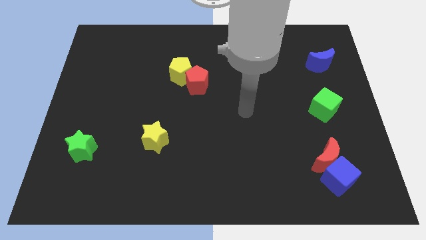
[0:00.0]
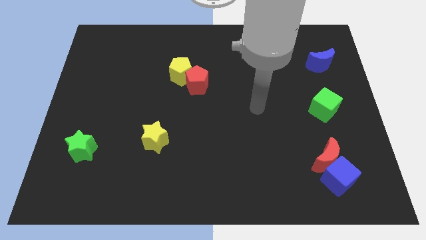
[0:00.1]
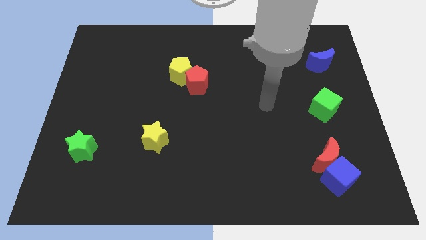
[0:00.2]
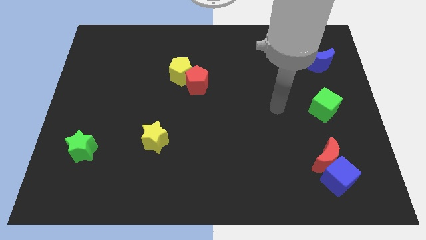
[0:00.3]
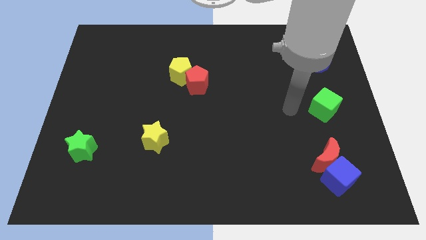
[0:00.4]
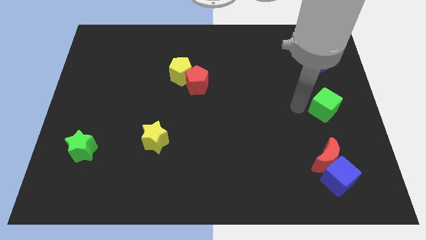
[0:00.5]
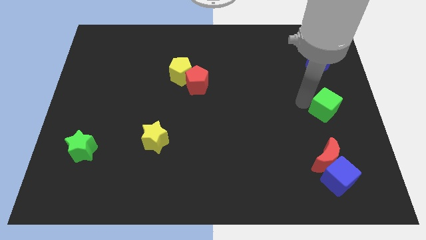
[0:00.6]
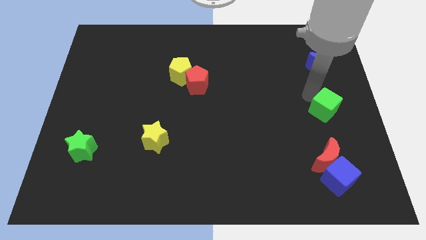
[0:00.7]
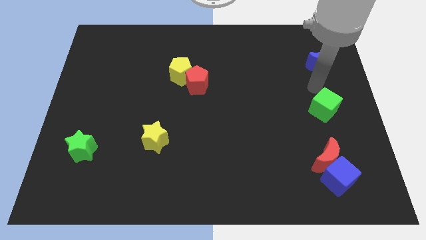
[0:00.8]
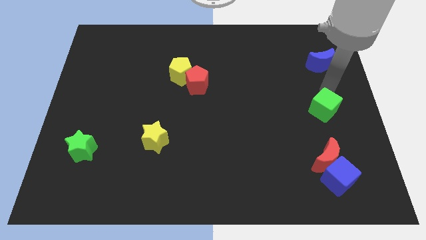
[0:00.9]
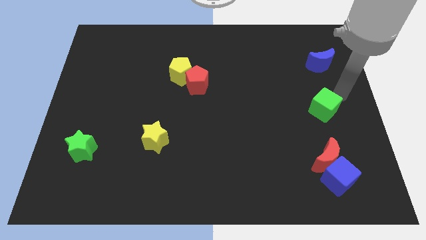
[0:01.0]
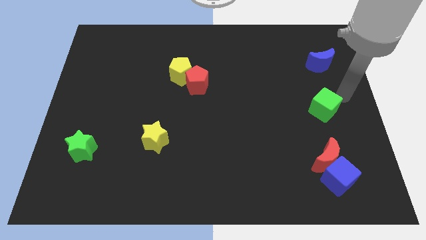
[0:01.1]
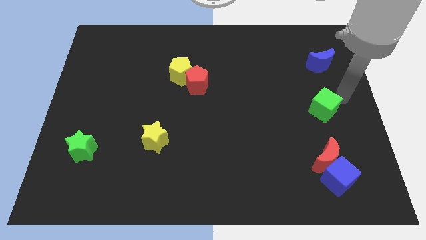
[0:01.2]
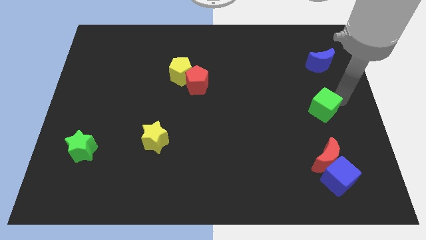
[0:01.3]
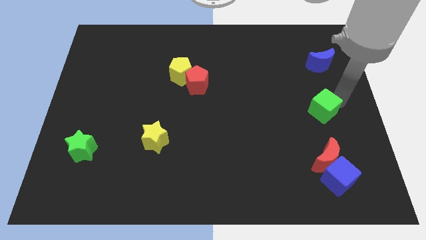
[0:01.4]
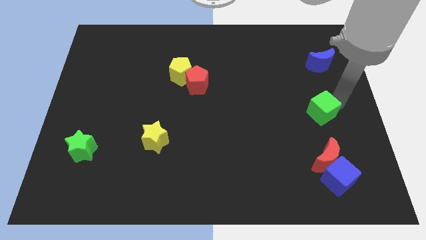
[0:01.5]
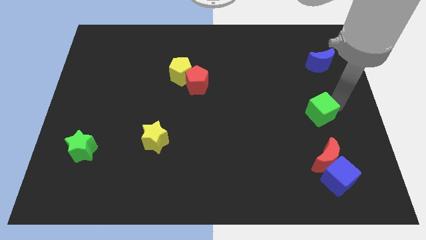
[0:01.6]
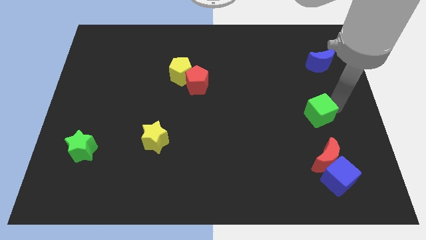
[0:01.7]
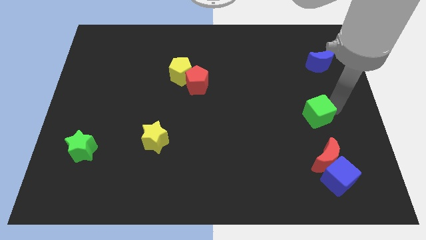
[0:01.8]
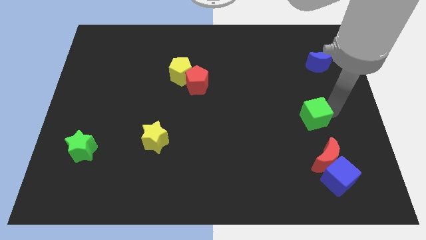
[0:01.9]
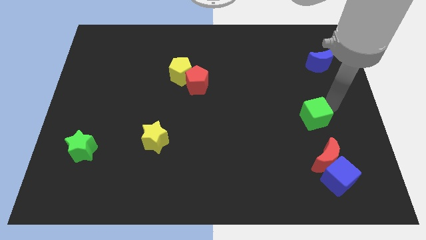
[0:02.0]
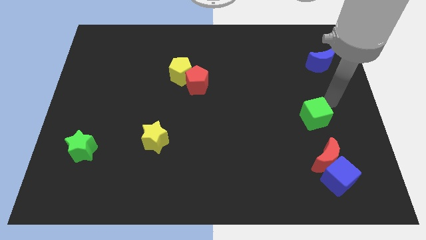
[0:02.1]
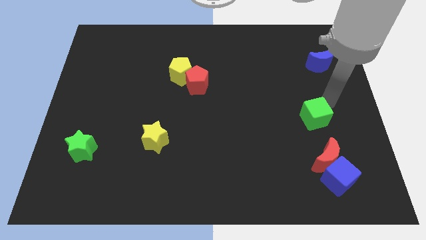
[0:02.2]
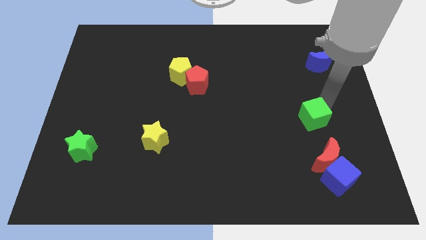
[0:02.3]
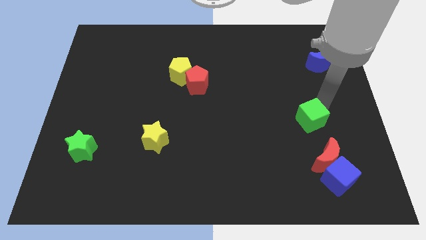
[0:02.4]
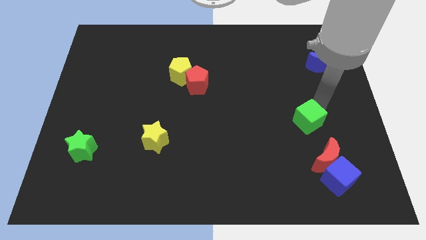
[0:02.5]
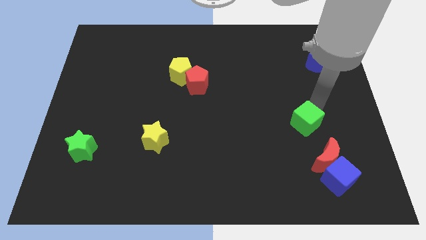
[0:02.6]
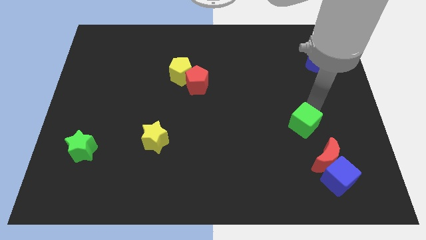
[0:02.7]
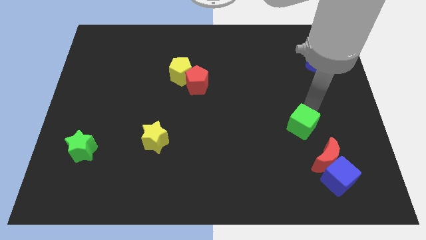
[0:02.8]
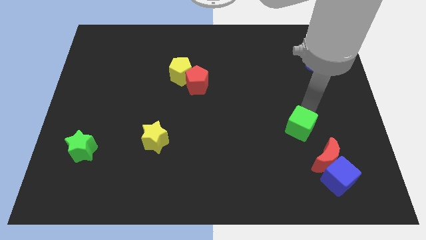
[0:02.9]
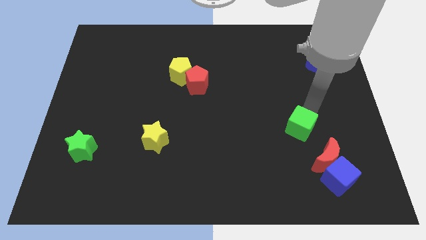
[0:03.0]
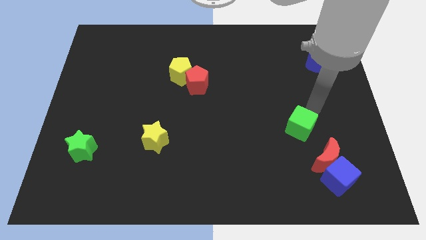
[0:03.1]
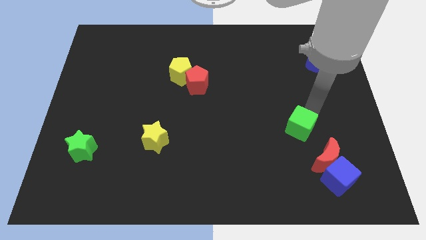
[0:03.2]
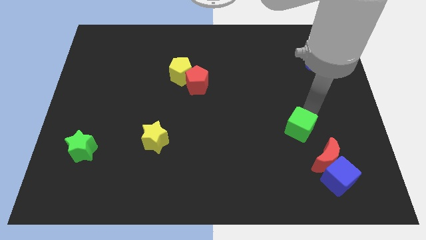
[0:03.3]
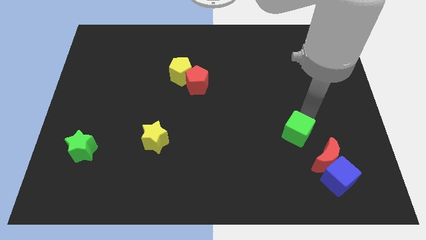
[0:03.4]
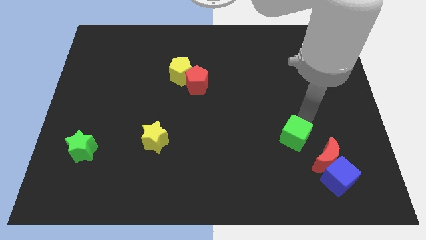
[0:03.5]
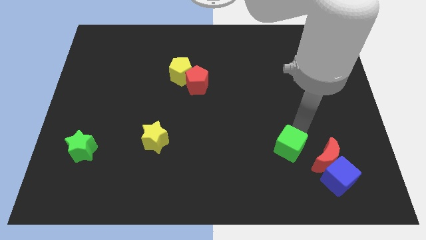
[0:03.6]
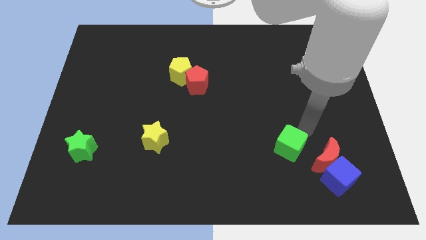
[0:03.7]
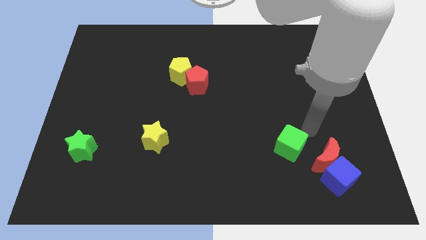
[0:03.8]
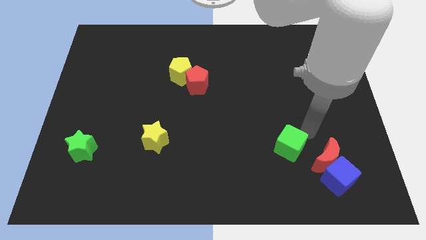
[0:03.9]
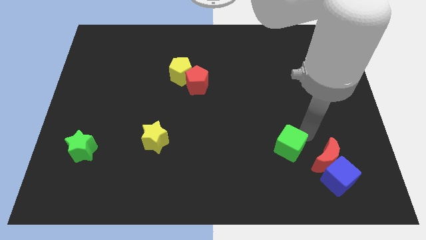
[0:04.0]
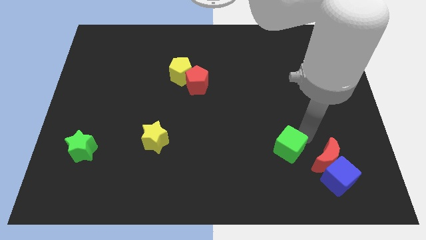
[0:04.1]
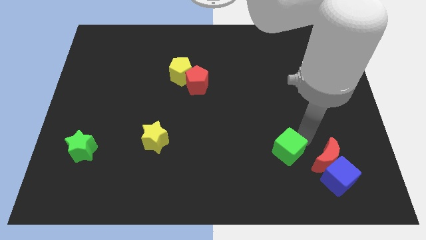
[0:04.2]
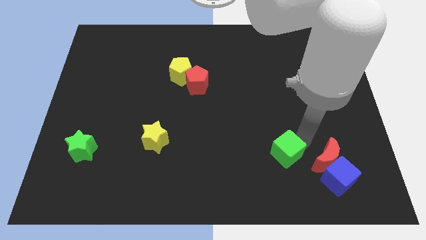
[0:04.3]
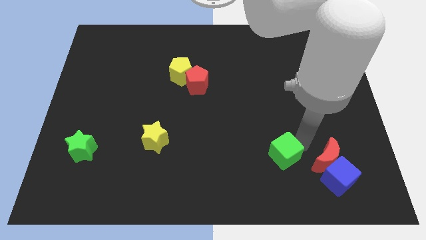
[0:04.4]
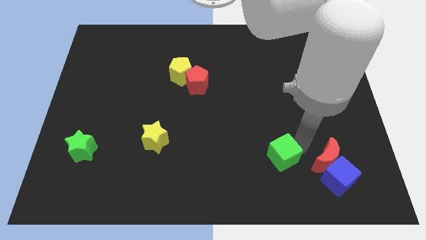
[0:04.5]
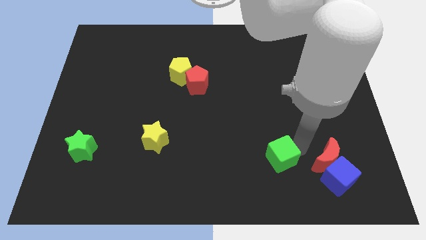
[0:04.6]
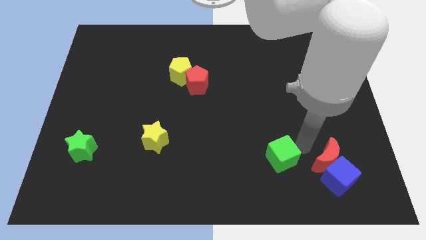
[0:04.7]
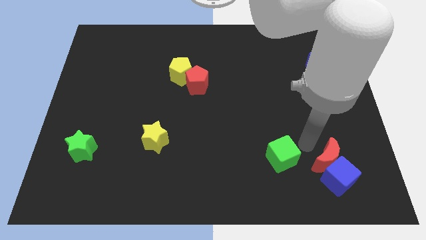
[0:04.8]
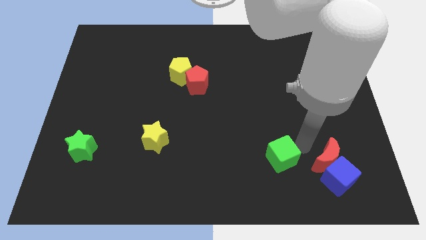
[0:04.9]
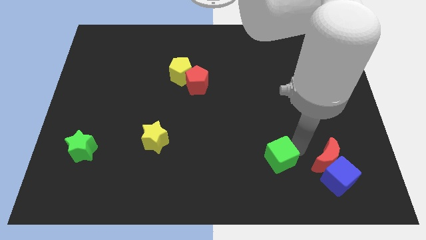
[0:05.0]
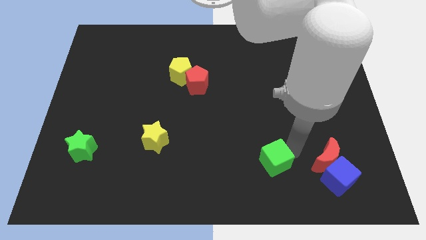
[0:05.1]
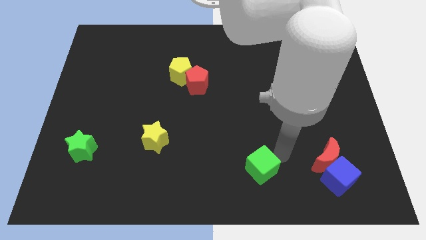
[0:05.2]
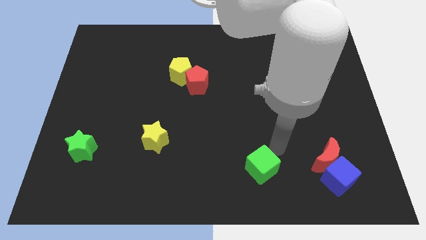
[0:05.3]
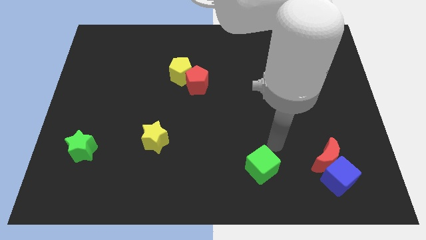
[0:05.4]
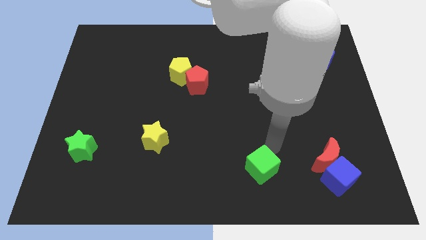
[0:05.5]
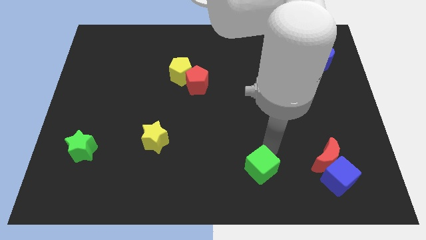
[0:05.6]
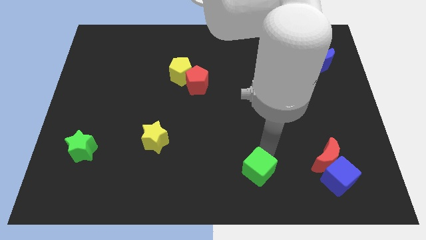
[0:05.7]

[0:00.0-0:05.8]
put the green cube to the bottom side

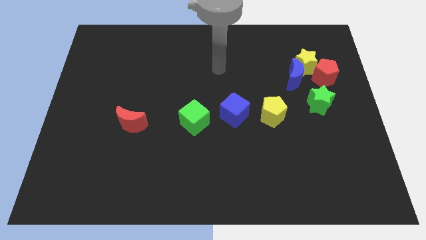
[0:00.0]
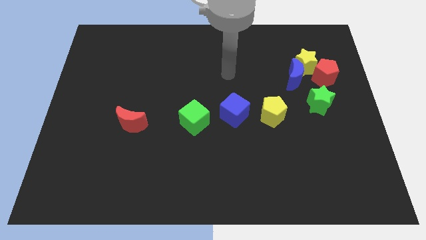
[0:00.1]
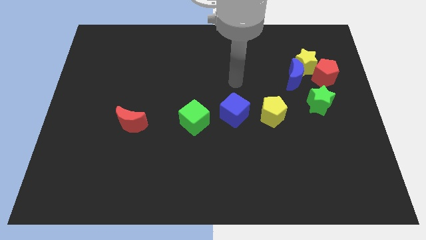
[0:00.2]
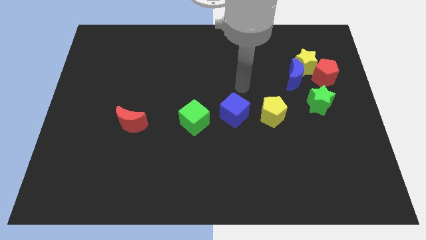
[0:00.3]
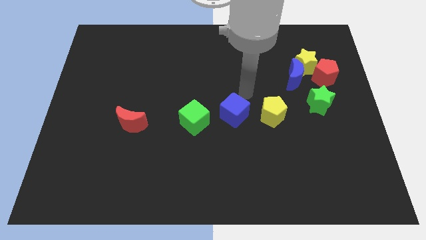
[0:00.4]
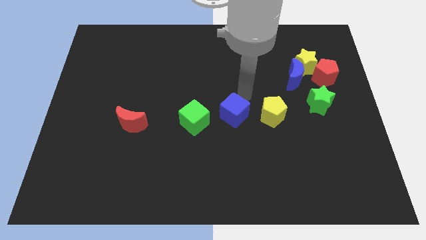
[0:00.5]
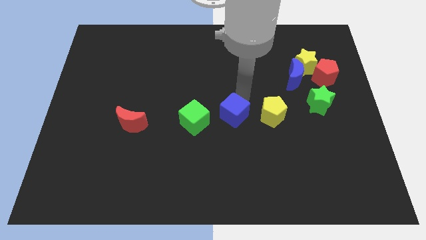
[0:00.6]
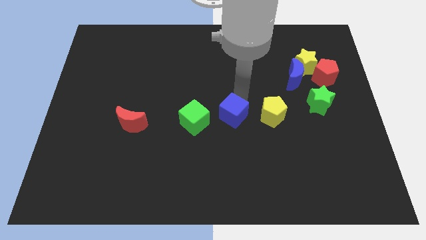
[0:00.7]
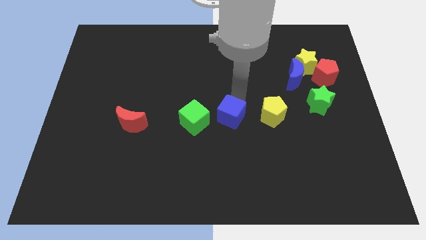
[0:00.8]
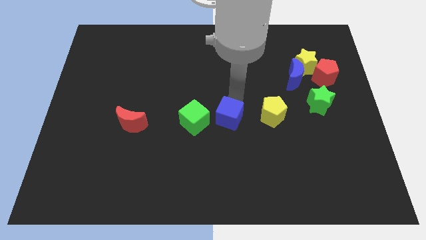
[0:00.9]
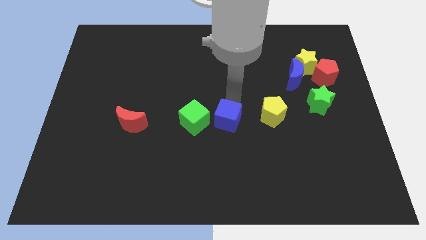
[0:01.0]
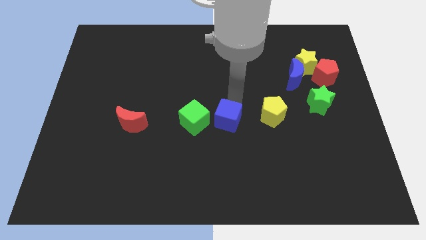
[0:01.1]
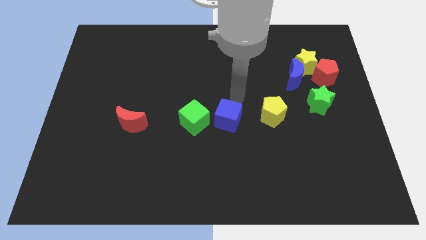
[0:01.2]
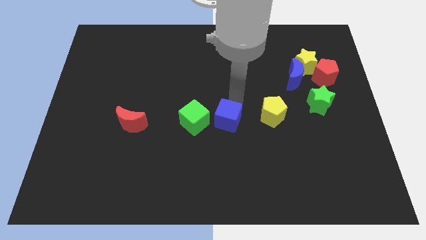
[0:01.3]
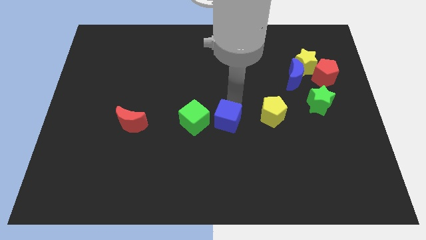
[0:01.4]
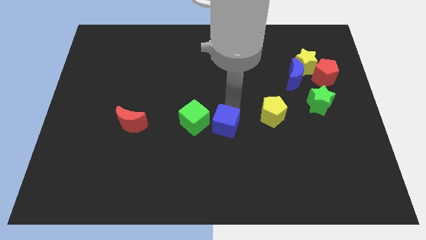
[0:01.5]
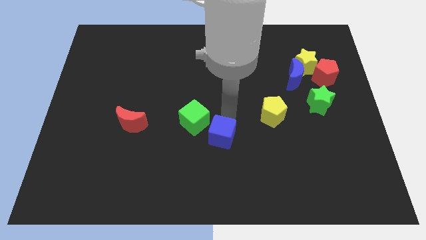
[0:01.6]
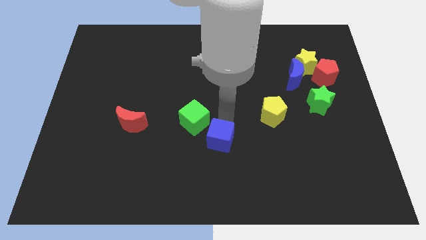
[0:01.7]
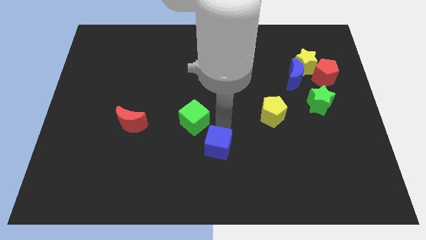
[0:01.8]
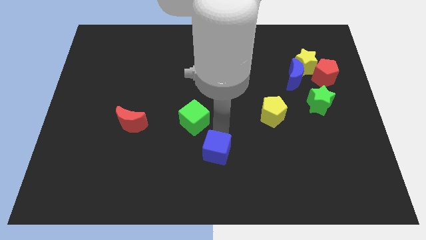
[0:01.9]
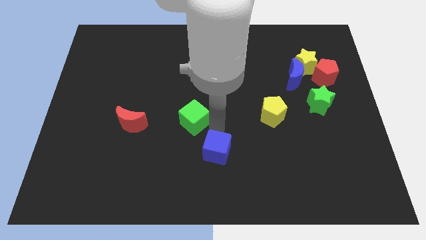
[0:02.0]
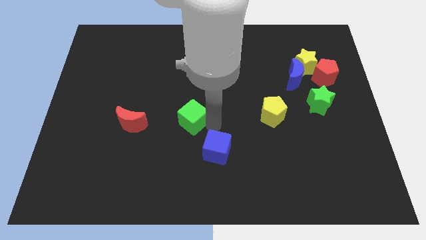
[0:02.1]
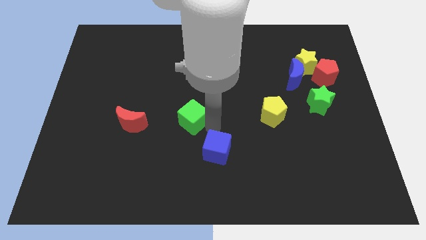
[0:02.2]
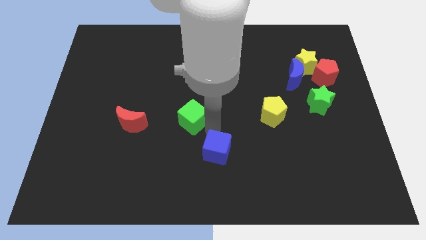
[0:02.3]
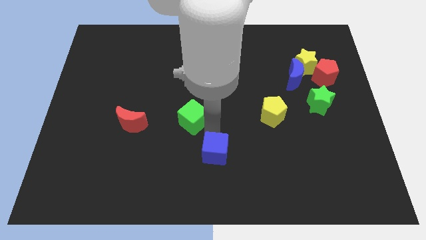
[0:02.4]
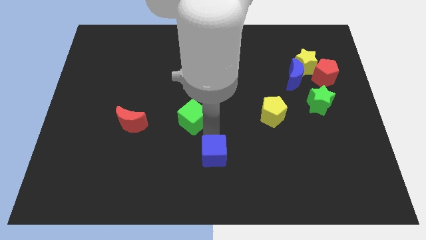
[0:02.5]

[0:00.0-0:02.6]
move the blue cube to the bottom
